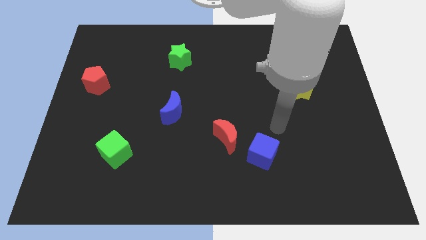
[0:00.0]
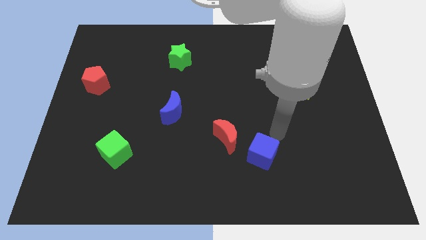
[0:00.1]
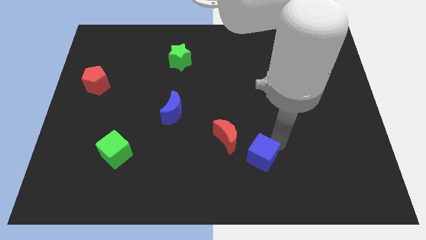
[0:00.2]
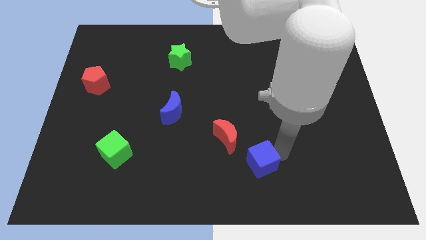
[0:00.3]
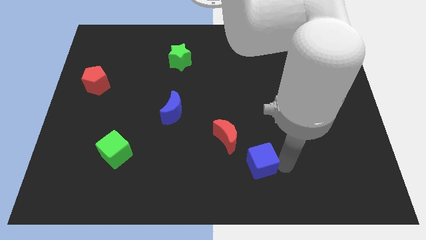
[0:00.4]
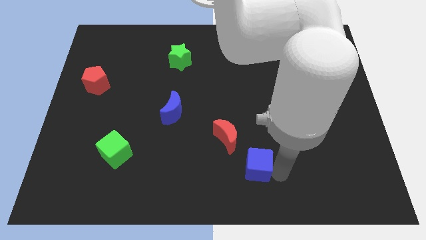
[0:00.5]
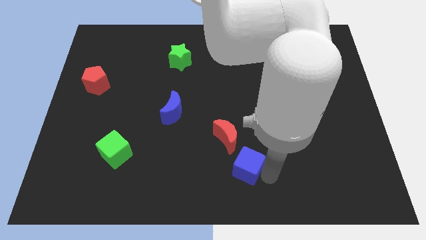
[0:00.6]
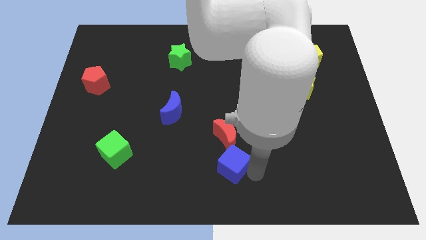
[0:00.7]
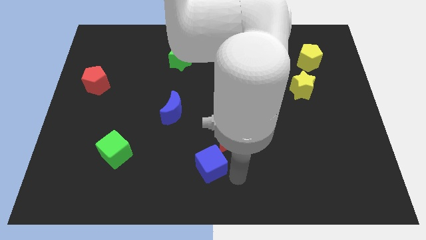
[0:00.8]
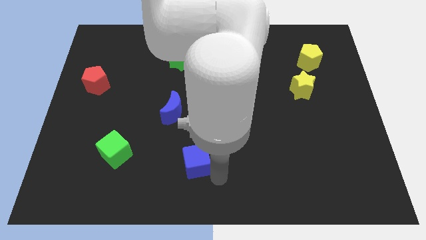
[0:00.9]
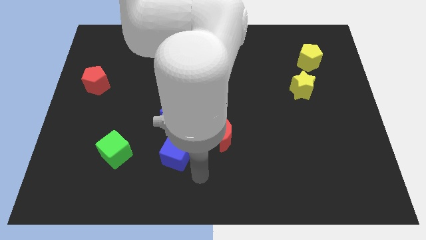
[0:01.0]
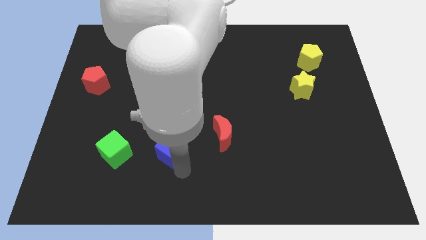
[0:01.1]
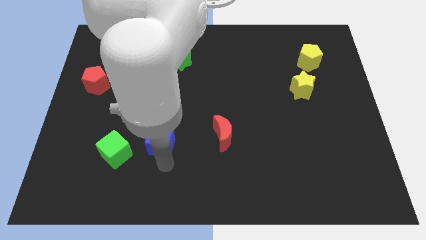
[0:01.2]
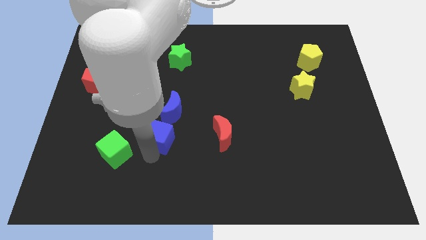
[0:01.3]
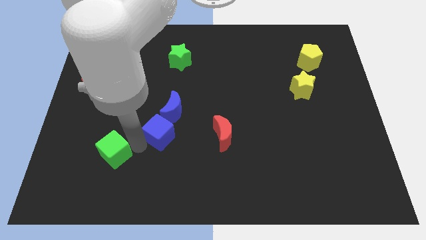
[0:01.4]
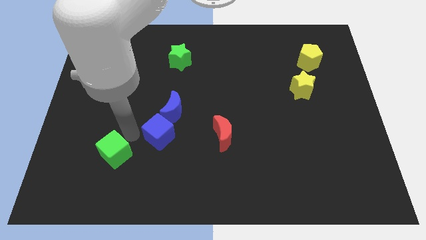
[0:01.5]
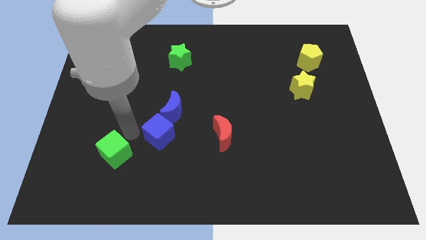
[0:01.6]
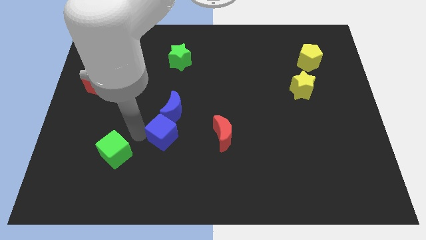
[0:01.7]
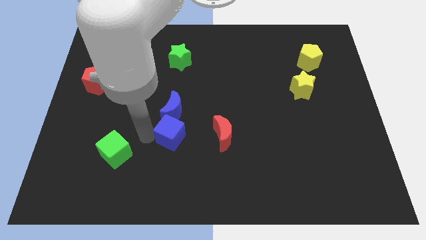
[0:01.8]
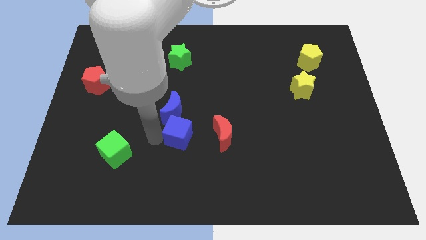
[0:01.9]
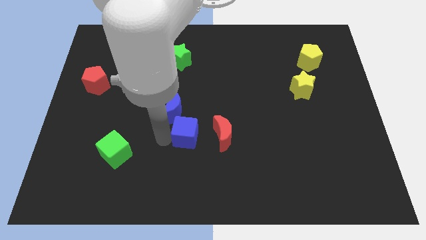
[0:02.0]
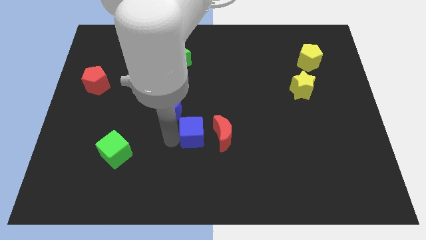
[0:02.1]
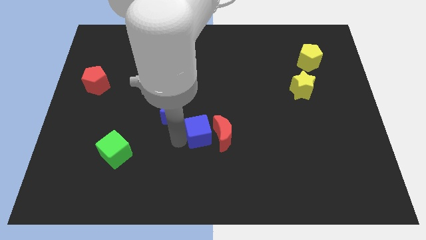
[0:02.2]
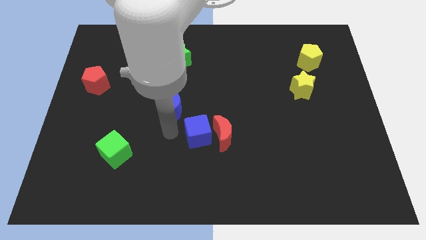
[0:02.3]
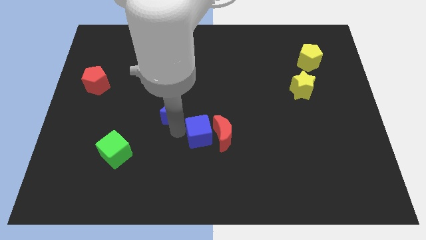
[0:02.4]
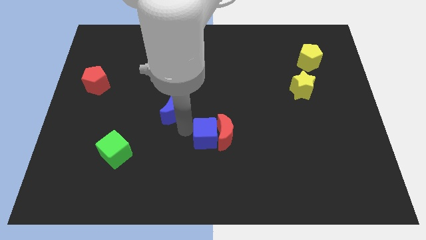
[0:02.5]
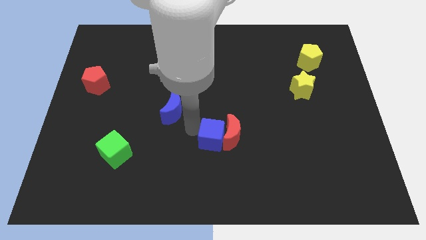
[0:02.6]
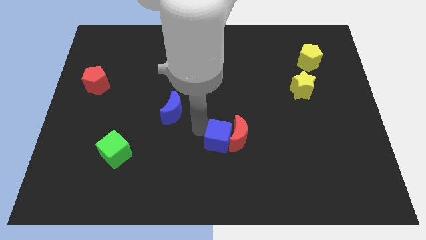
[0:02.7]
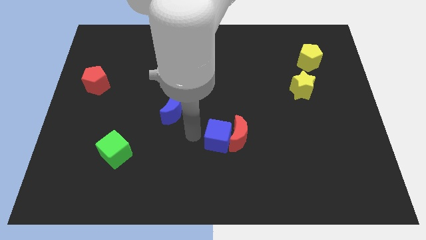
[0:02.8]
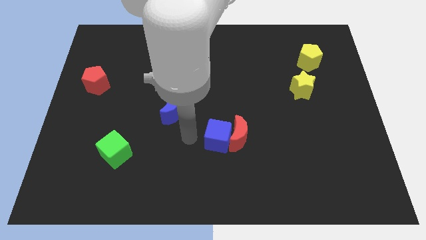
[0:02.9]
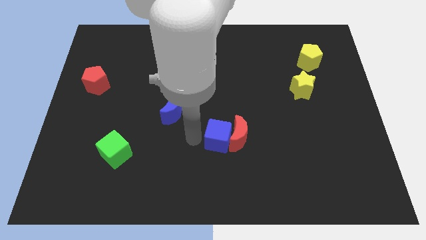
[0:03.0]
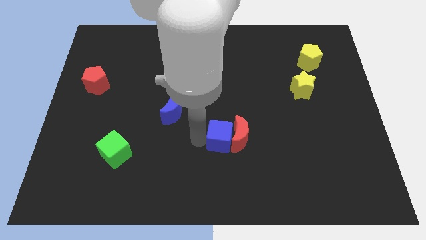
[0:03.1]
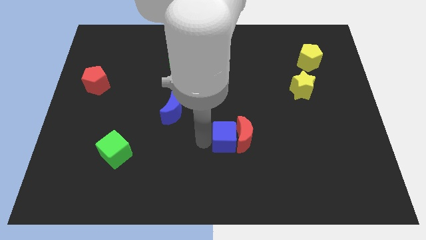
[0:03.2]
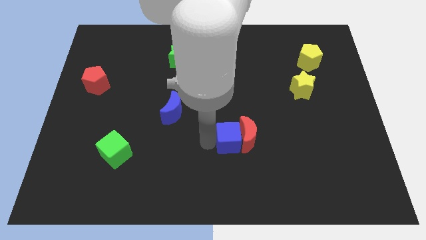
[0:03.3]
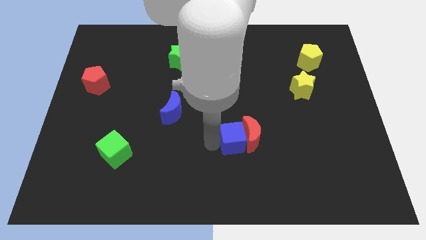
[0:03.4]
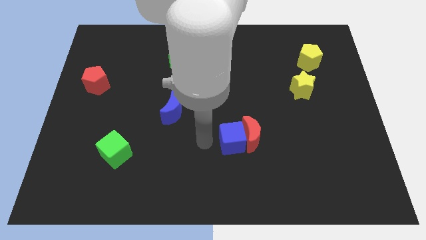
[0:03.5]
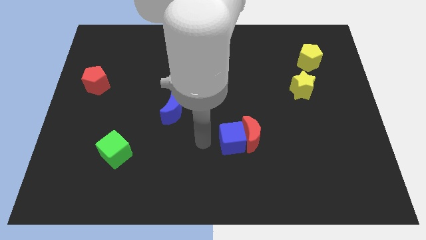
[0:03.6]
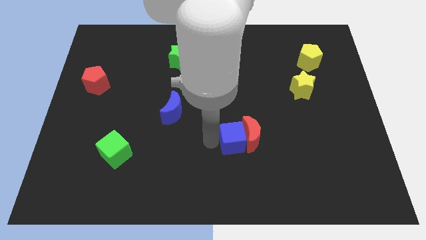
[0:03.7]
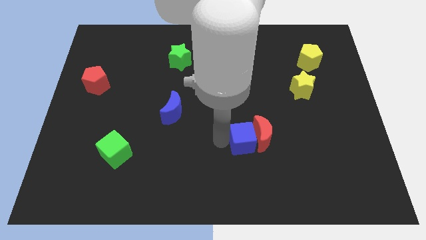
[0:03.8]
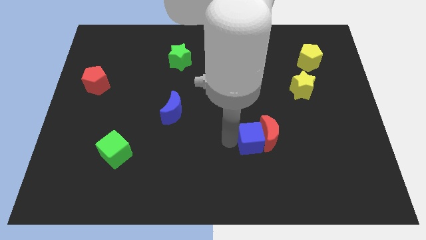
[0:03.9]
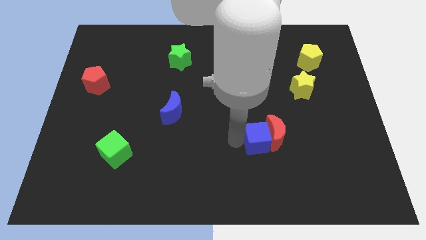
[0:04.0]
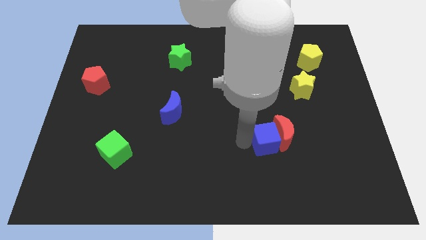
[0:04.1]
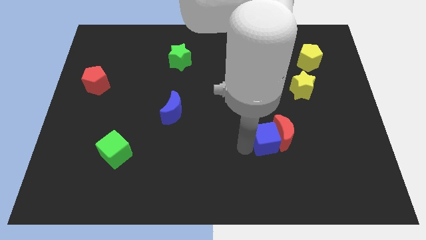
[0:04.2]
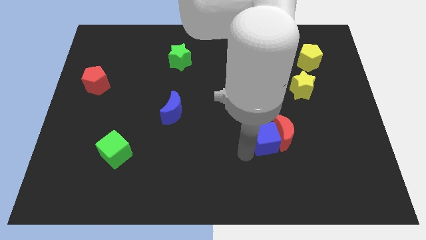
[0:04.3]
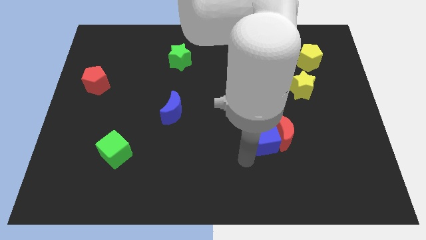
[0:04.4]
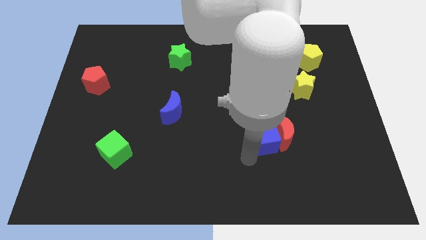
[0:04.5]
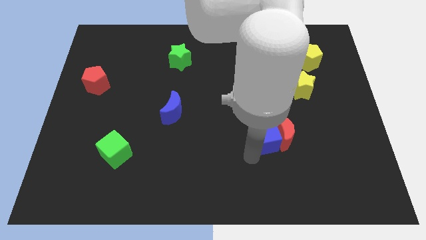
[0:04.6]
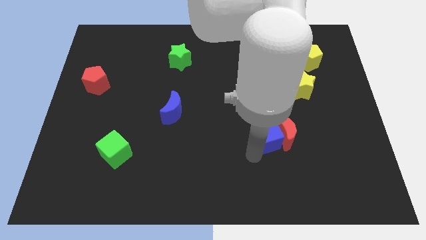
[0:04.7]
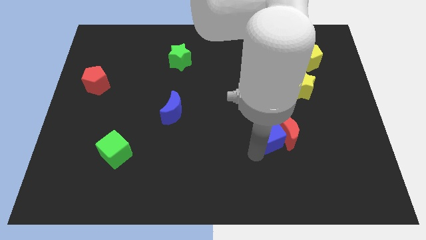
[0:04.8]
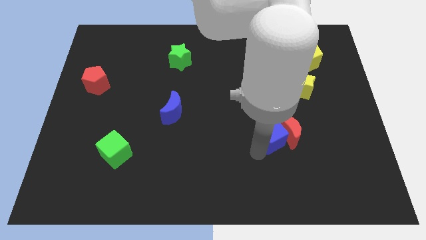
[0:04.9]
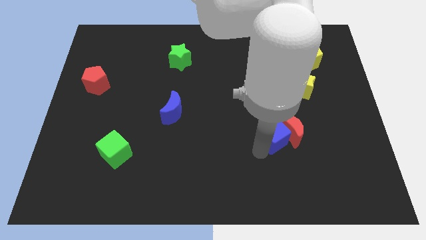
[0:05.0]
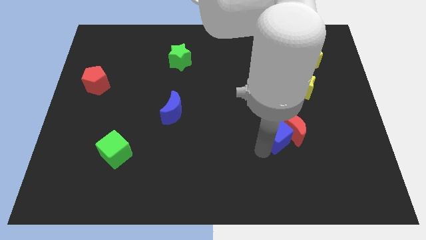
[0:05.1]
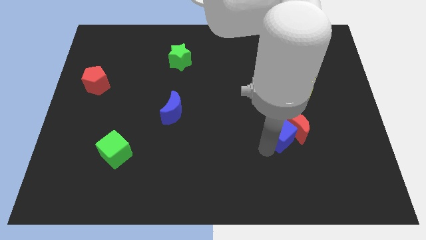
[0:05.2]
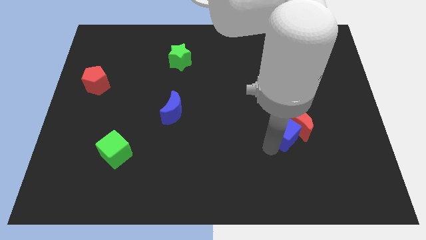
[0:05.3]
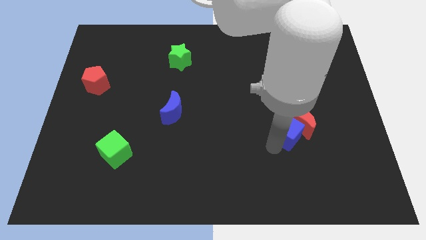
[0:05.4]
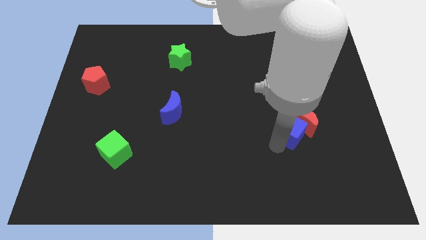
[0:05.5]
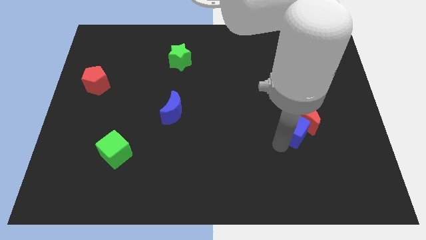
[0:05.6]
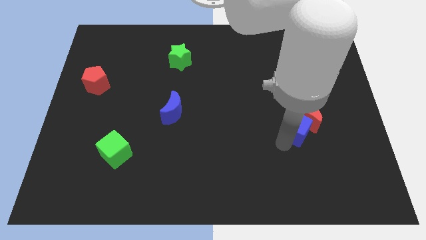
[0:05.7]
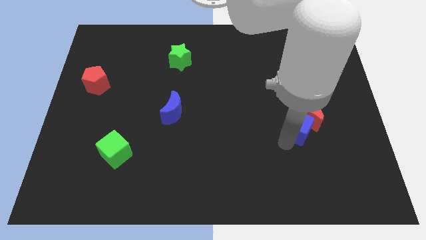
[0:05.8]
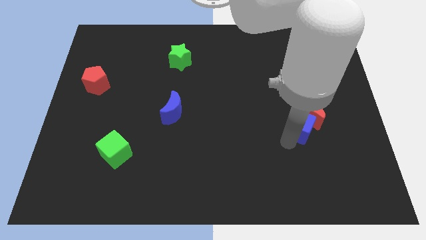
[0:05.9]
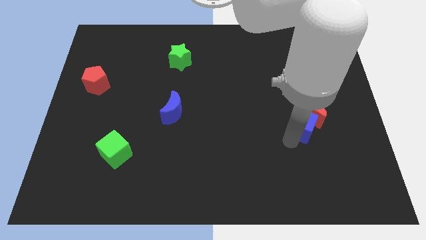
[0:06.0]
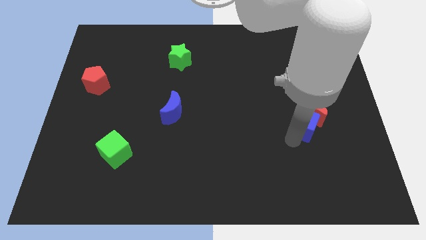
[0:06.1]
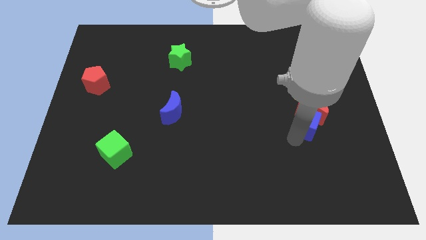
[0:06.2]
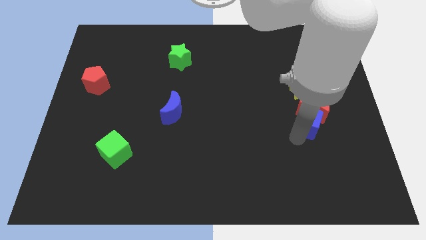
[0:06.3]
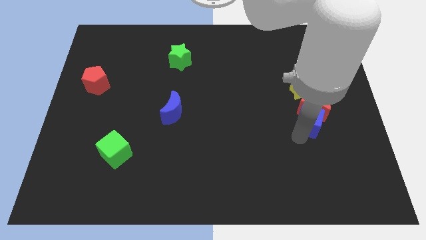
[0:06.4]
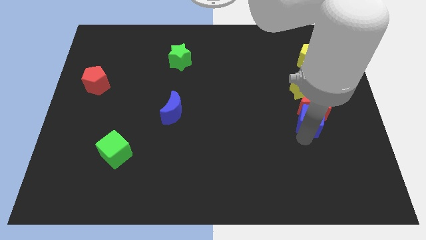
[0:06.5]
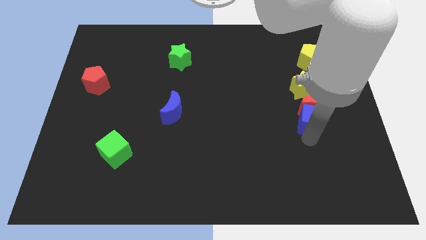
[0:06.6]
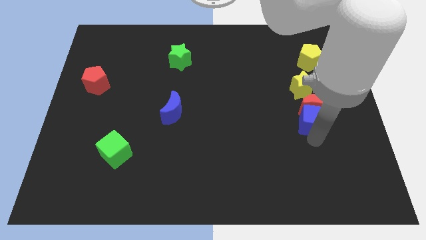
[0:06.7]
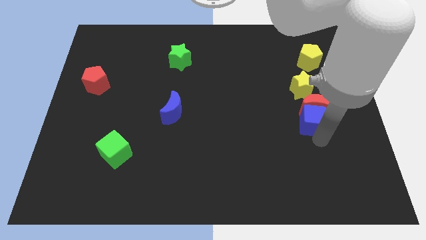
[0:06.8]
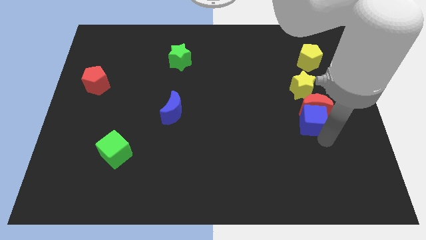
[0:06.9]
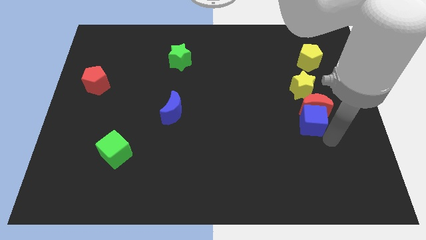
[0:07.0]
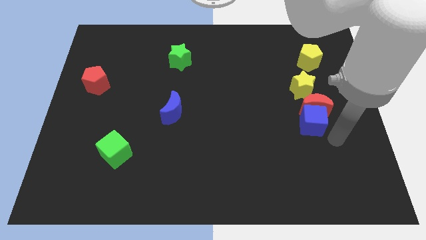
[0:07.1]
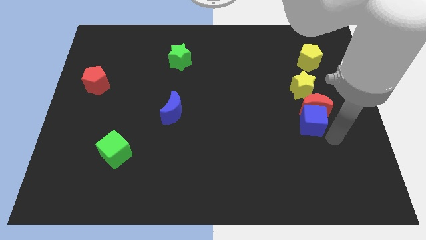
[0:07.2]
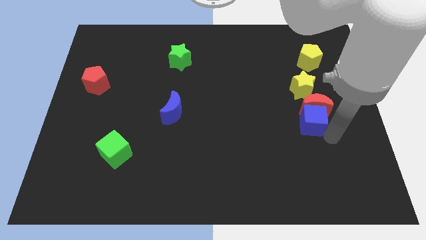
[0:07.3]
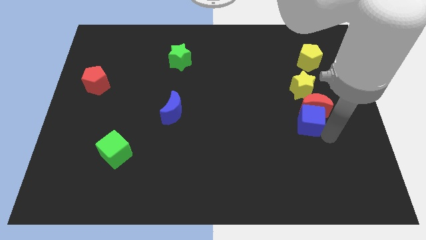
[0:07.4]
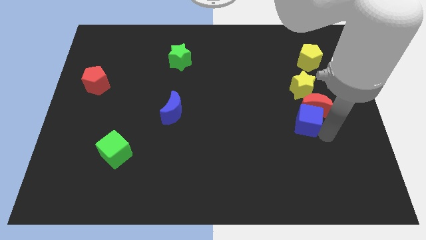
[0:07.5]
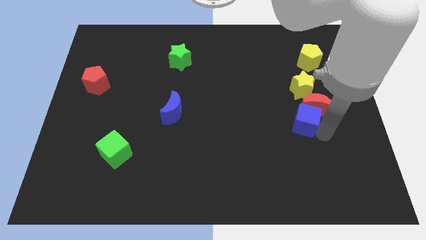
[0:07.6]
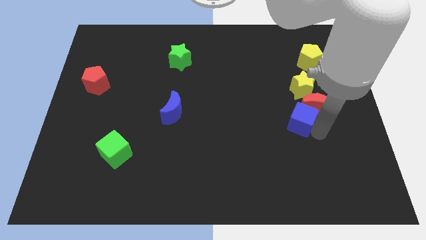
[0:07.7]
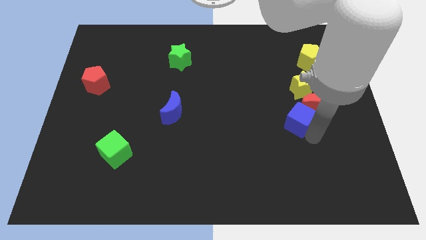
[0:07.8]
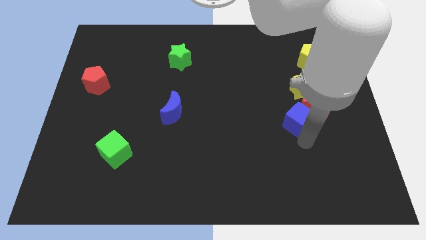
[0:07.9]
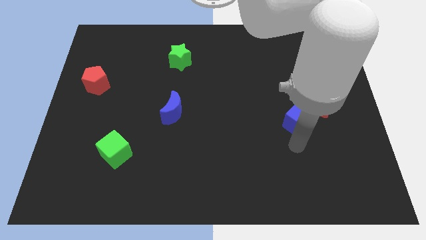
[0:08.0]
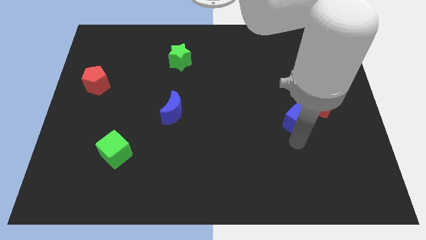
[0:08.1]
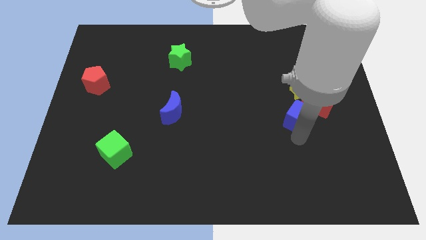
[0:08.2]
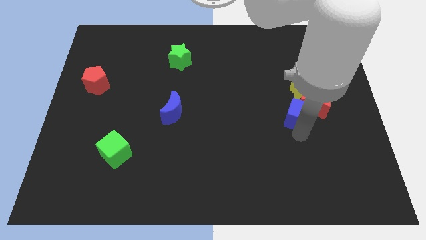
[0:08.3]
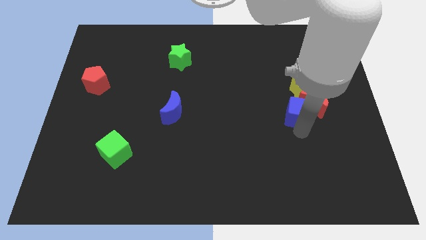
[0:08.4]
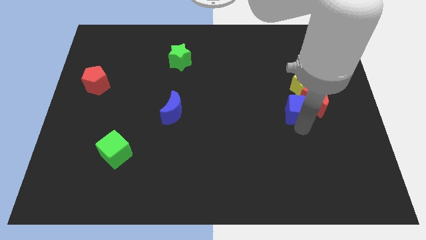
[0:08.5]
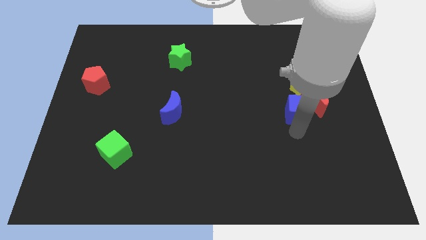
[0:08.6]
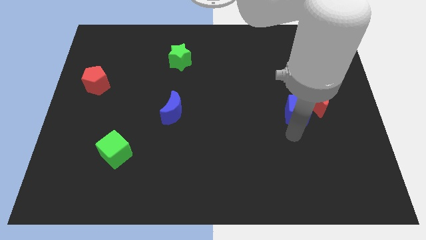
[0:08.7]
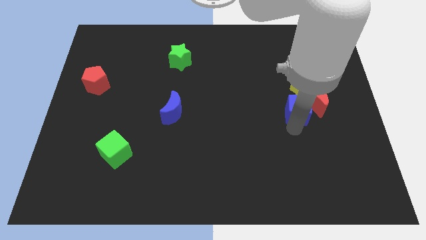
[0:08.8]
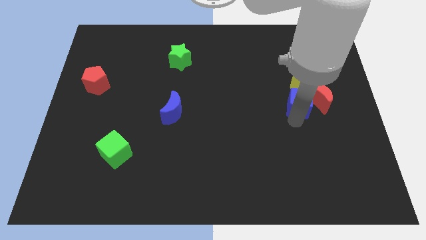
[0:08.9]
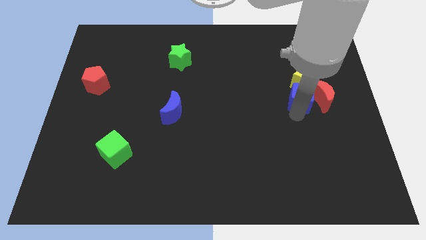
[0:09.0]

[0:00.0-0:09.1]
put the blue cube close to the yellow star
